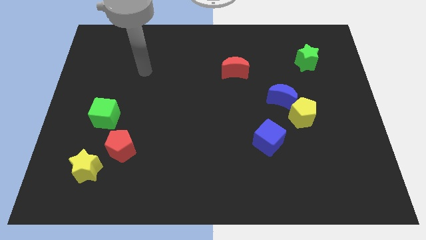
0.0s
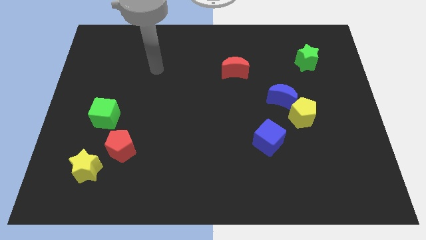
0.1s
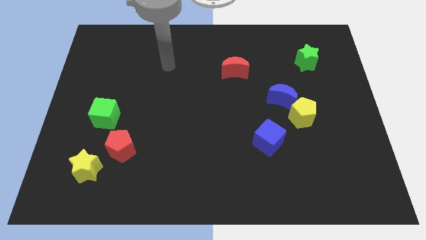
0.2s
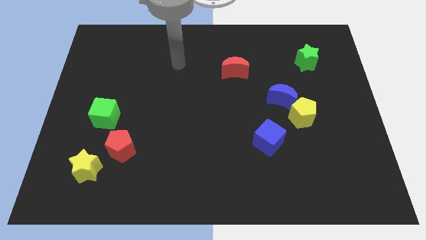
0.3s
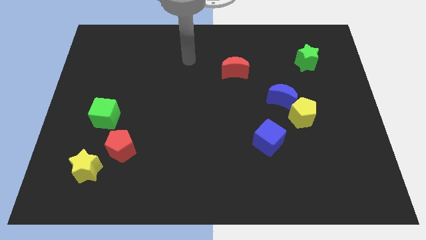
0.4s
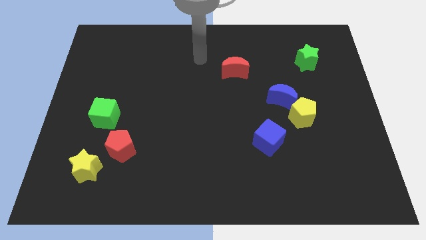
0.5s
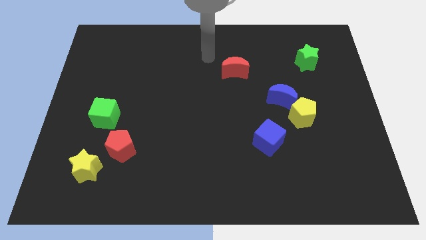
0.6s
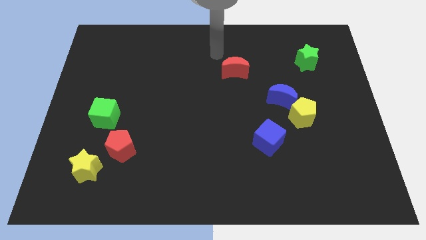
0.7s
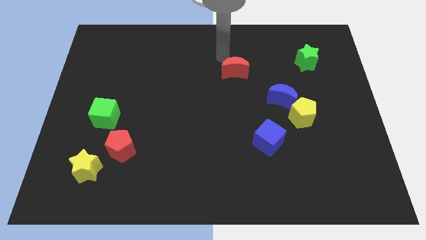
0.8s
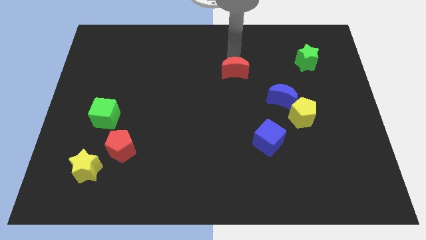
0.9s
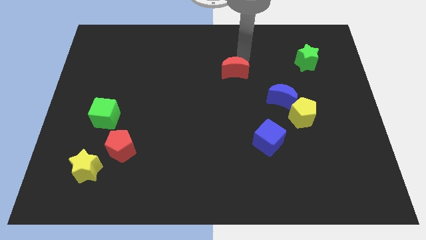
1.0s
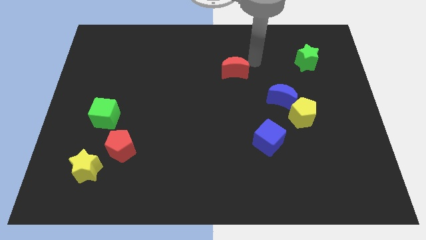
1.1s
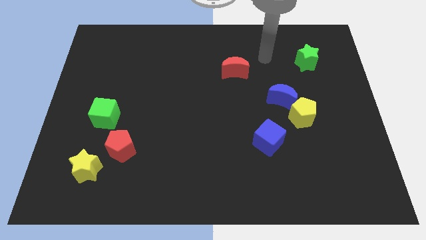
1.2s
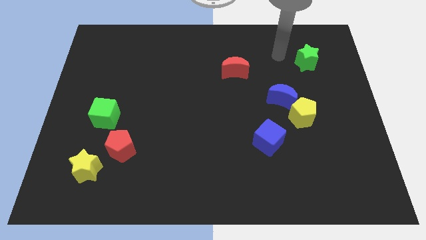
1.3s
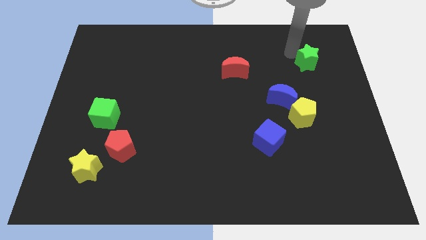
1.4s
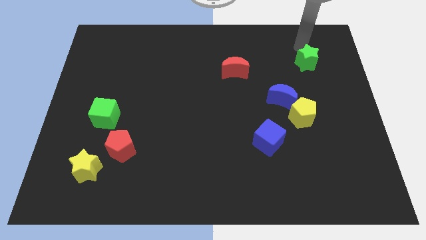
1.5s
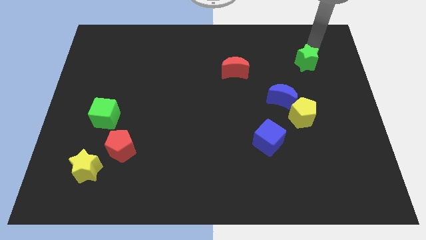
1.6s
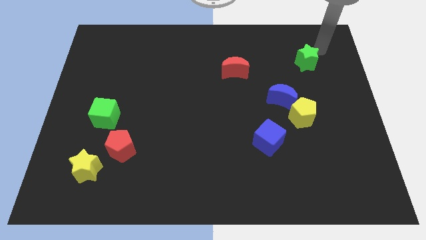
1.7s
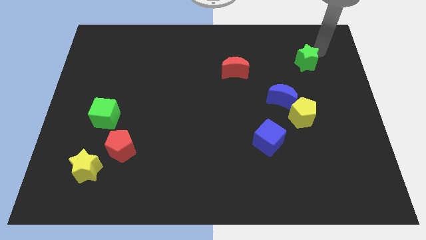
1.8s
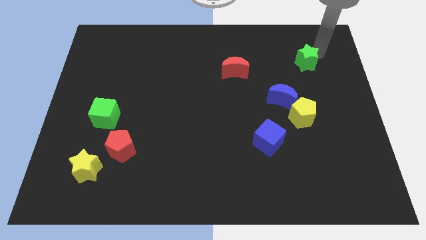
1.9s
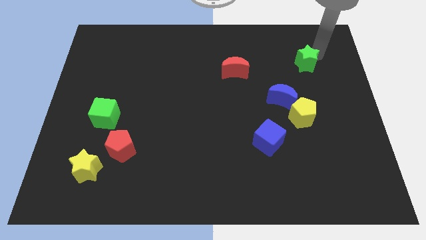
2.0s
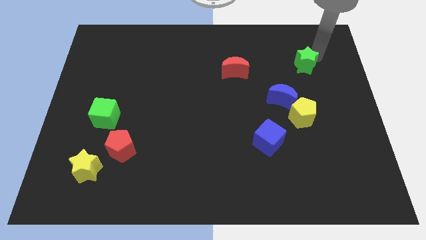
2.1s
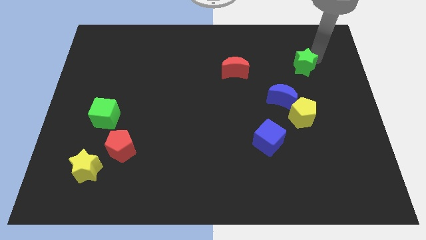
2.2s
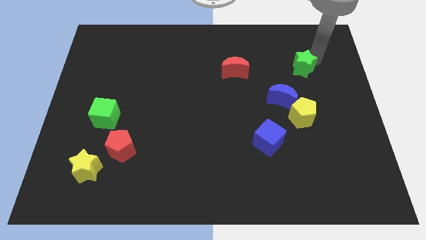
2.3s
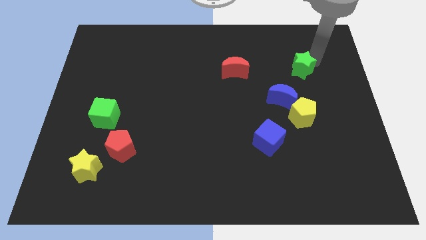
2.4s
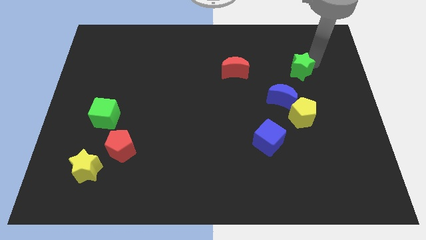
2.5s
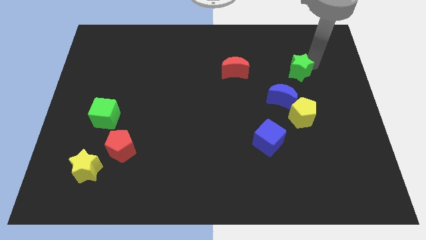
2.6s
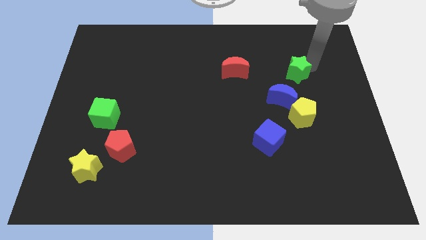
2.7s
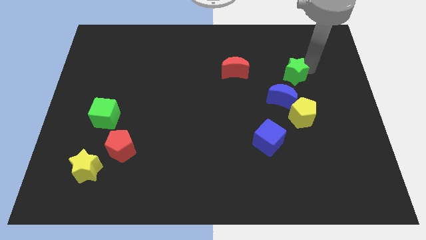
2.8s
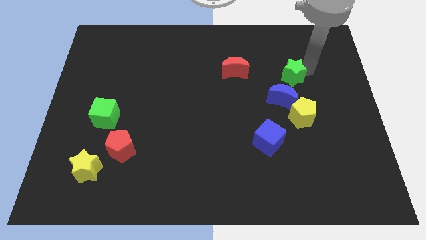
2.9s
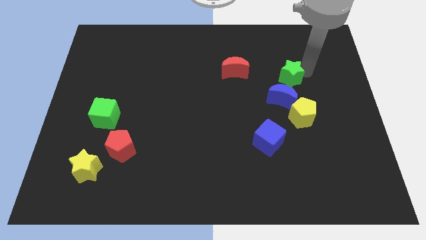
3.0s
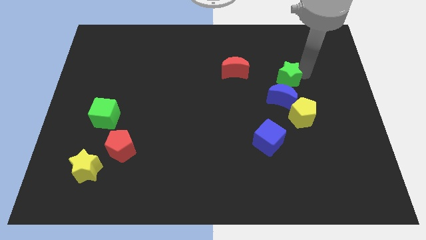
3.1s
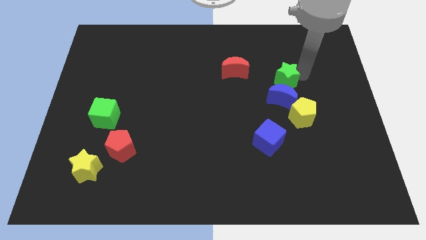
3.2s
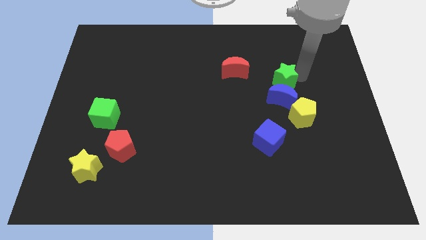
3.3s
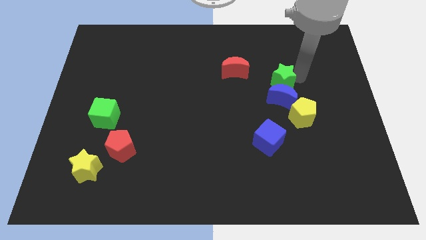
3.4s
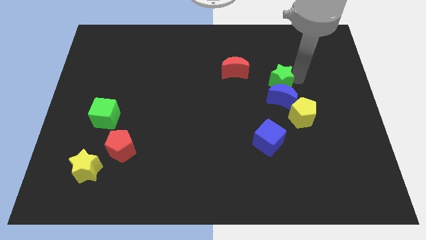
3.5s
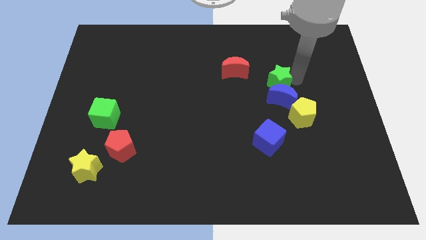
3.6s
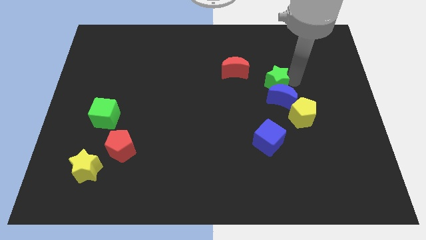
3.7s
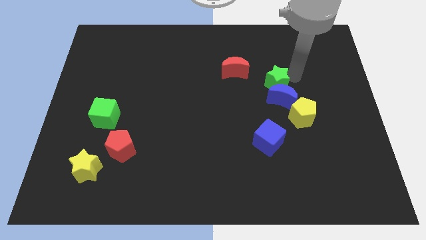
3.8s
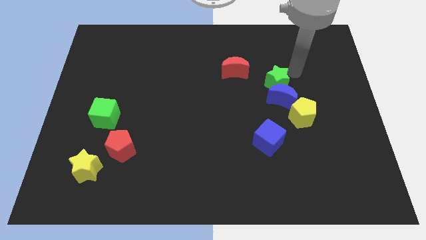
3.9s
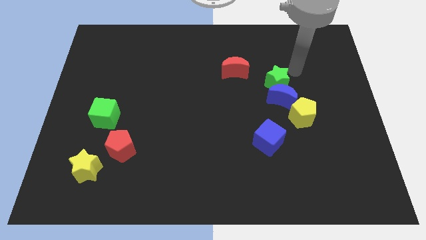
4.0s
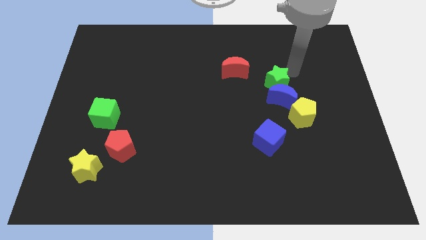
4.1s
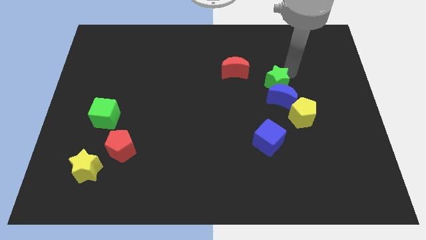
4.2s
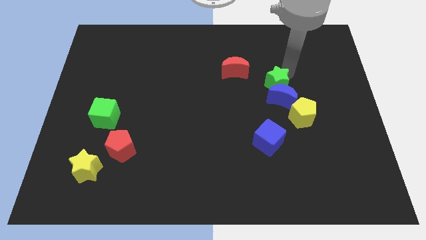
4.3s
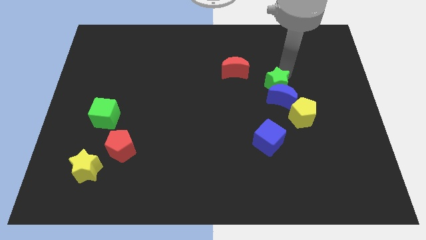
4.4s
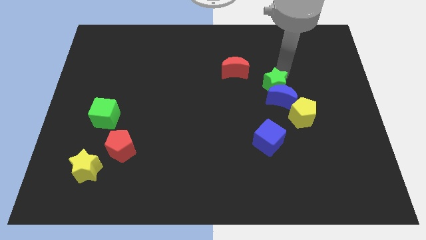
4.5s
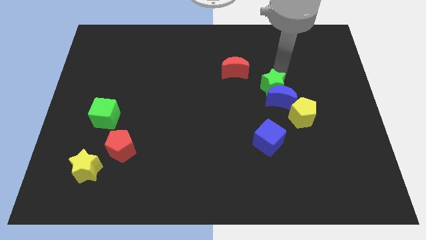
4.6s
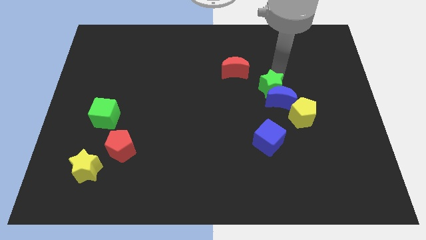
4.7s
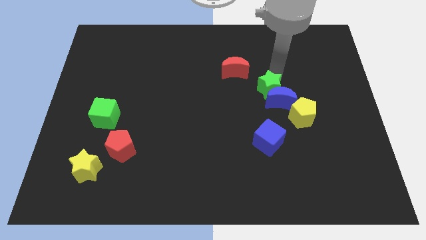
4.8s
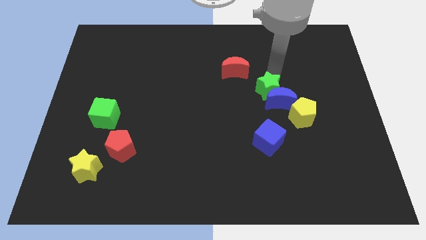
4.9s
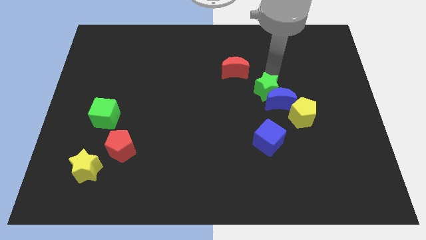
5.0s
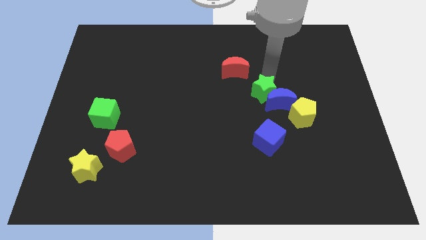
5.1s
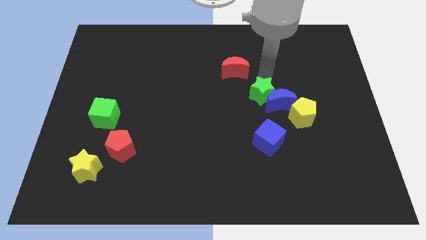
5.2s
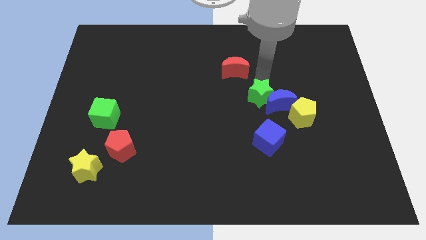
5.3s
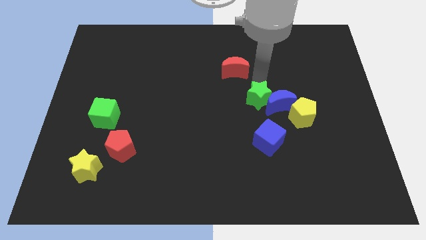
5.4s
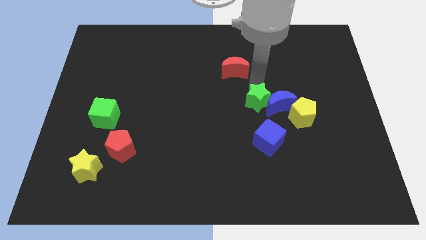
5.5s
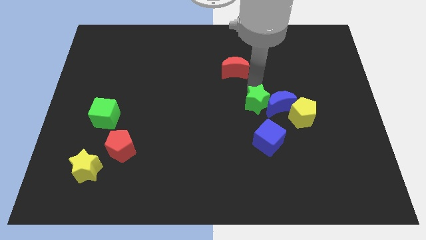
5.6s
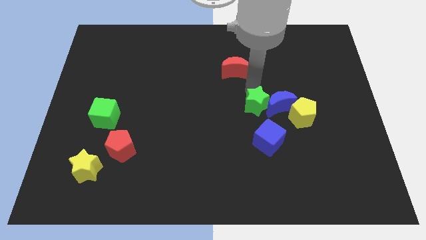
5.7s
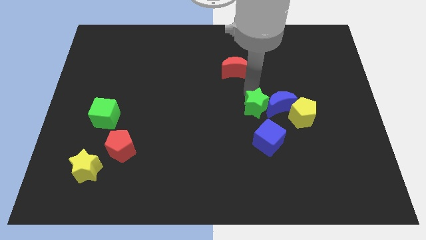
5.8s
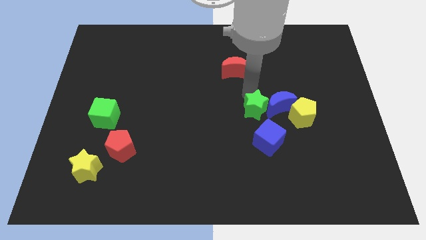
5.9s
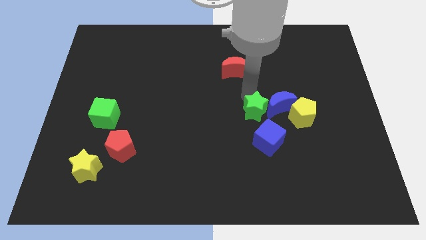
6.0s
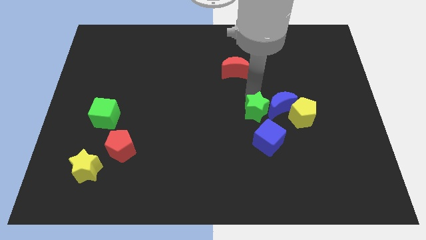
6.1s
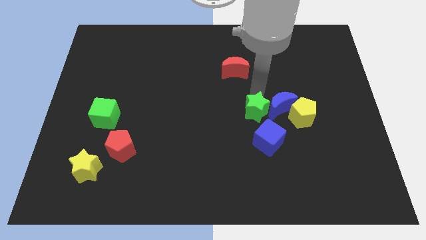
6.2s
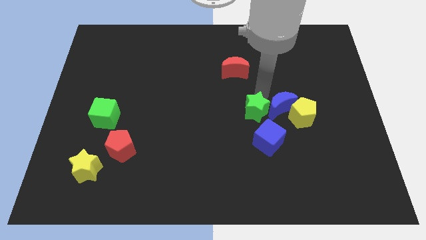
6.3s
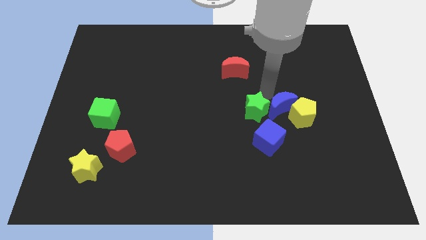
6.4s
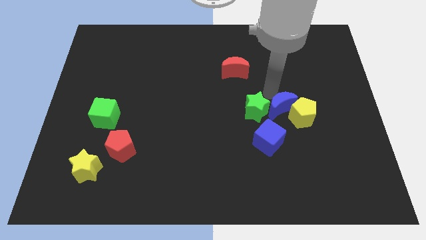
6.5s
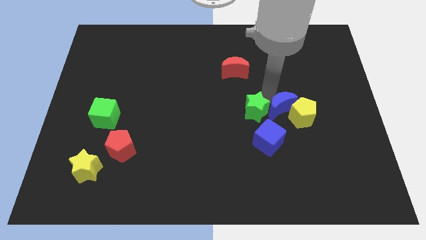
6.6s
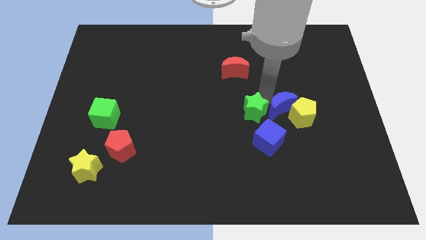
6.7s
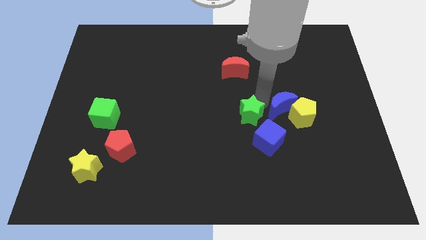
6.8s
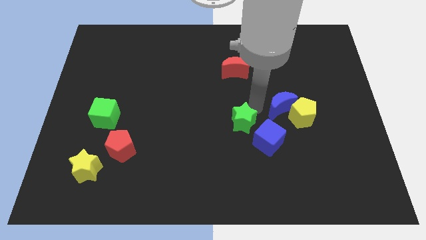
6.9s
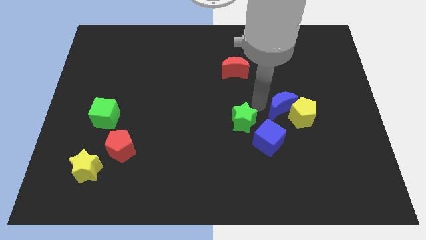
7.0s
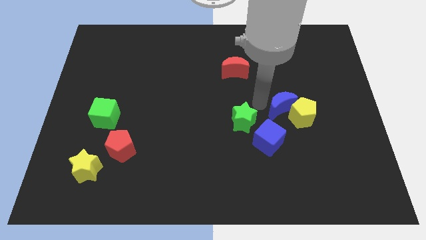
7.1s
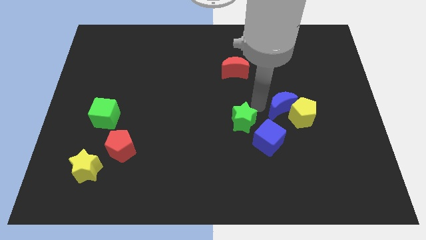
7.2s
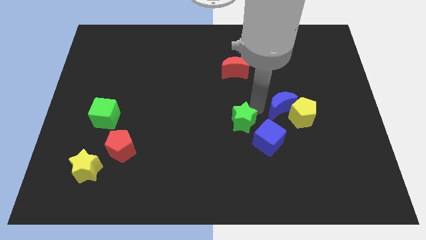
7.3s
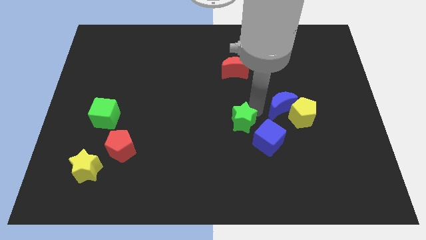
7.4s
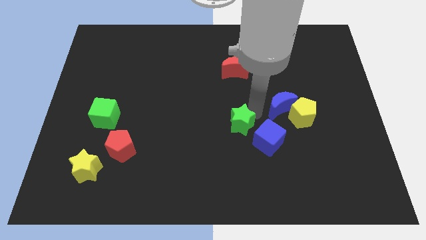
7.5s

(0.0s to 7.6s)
slide the green star left of the blue cube
